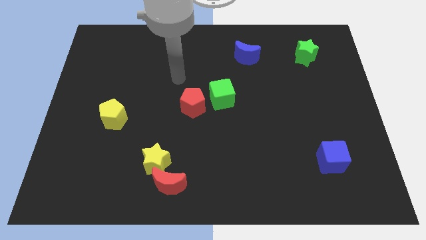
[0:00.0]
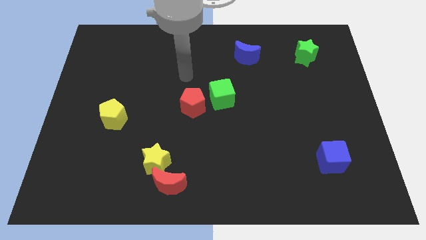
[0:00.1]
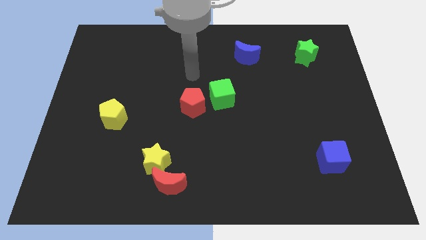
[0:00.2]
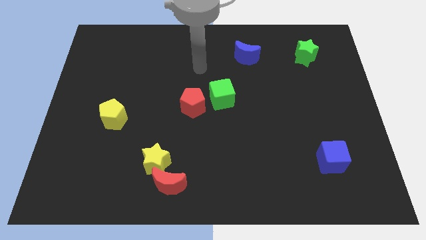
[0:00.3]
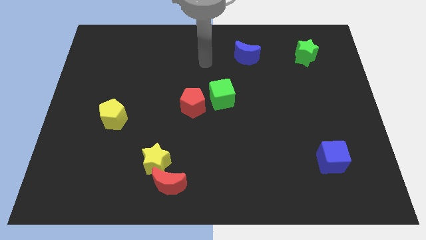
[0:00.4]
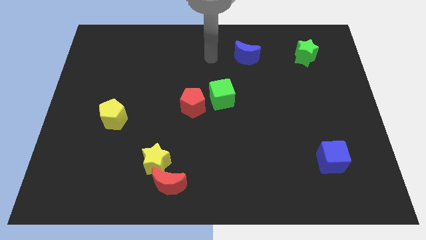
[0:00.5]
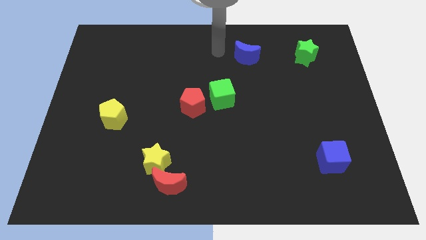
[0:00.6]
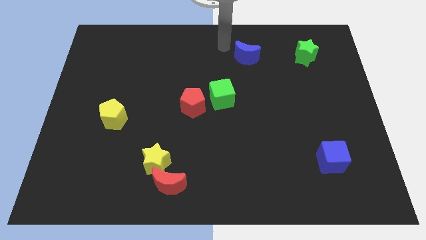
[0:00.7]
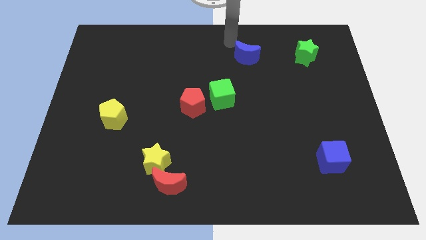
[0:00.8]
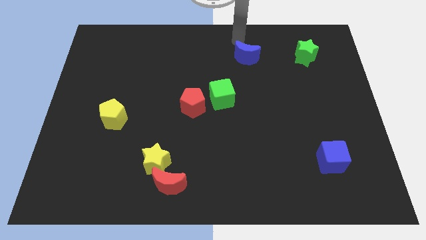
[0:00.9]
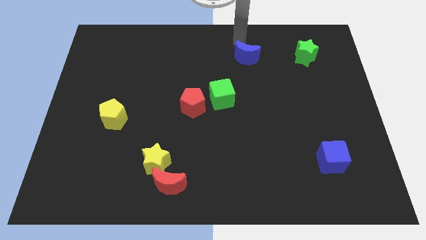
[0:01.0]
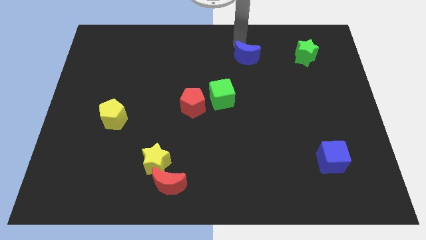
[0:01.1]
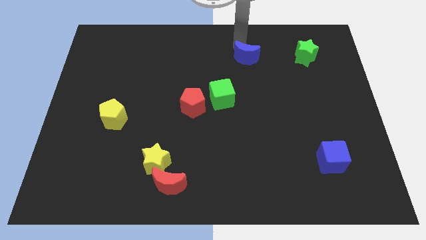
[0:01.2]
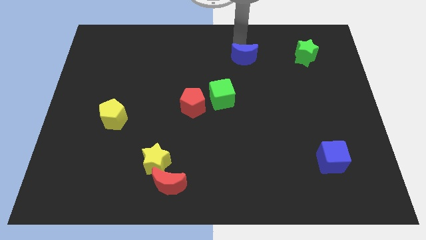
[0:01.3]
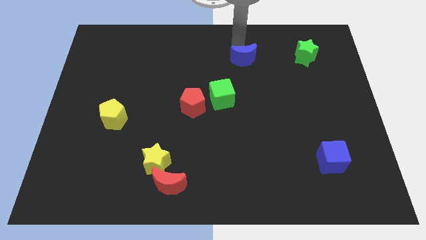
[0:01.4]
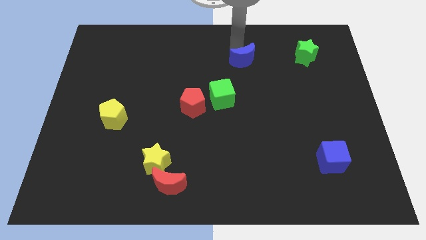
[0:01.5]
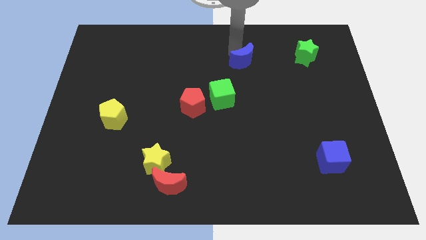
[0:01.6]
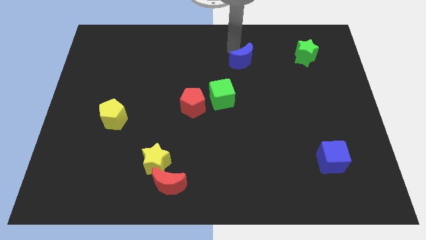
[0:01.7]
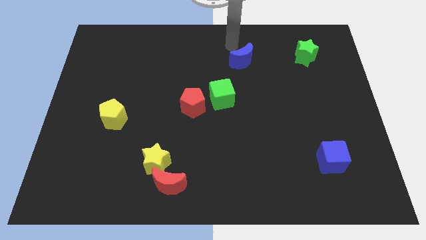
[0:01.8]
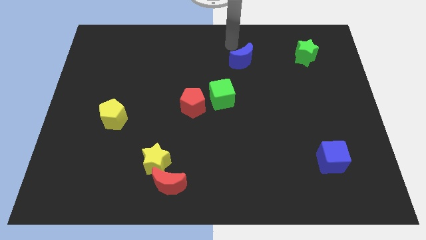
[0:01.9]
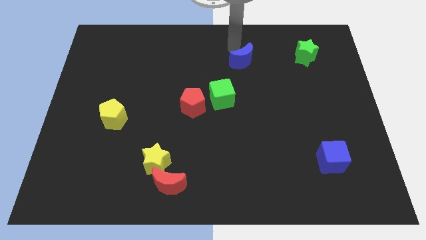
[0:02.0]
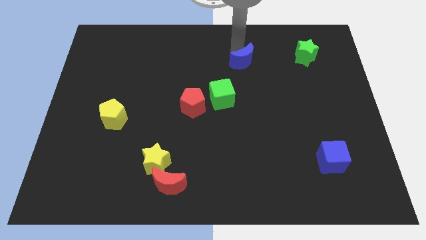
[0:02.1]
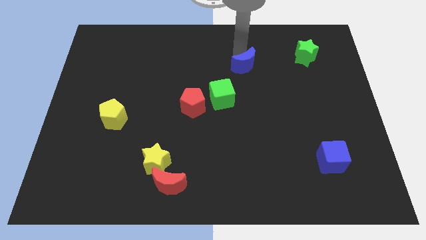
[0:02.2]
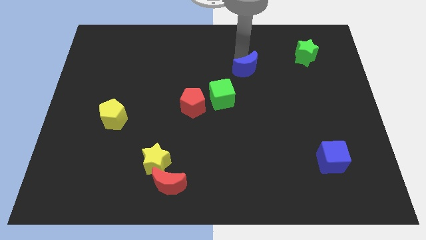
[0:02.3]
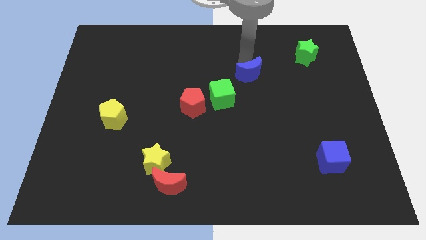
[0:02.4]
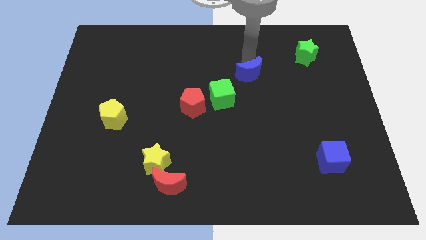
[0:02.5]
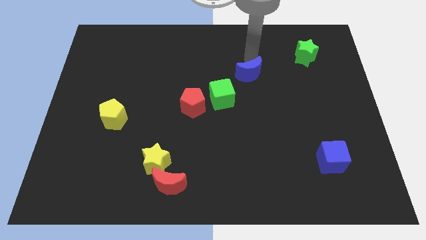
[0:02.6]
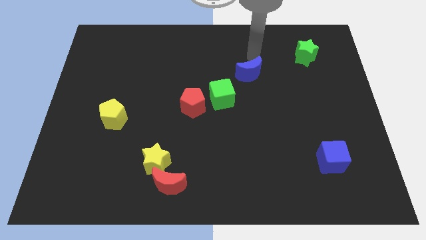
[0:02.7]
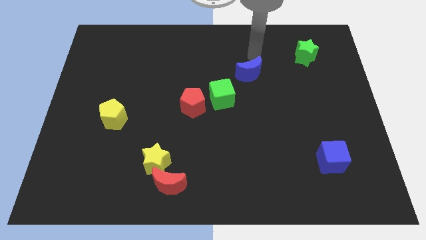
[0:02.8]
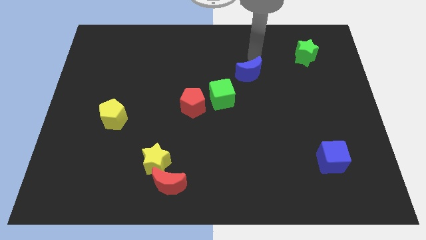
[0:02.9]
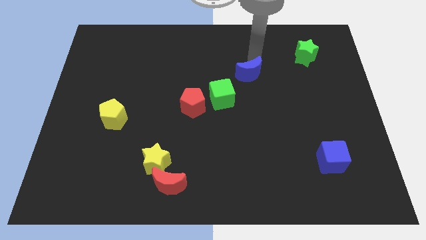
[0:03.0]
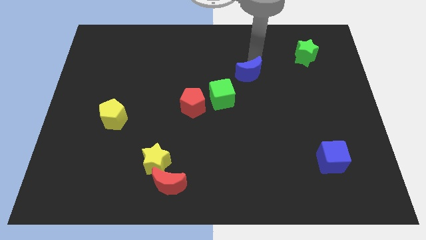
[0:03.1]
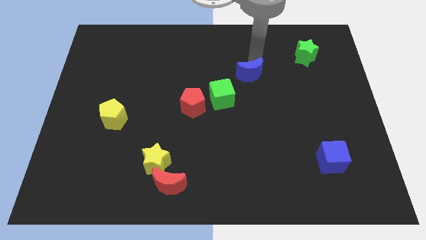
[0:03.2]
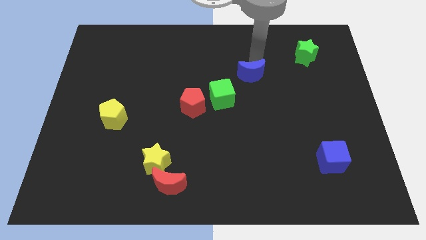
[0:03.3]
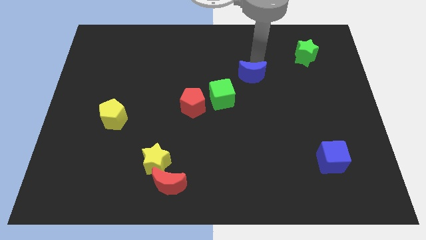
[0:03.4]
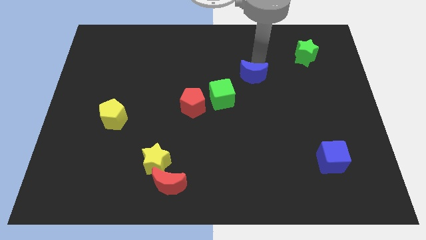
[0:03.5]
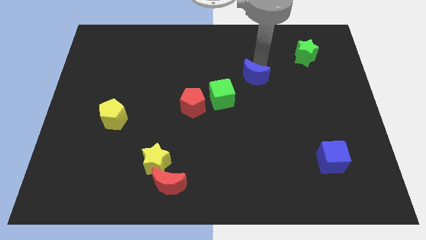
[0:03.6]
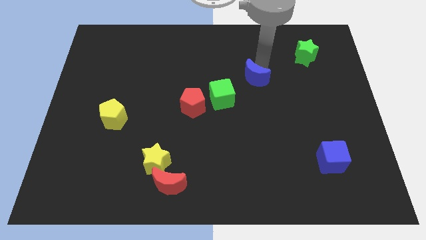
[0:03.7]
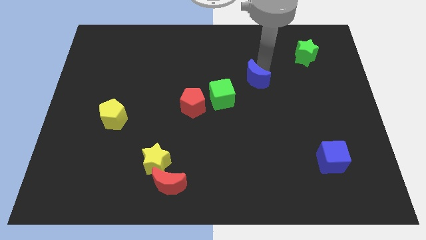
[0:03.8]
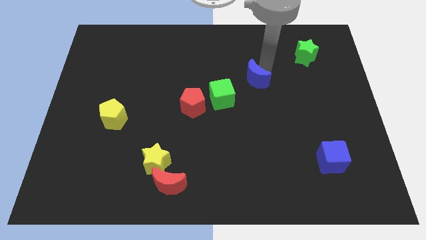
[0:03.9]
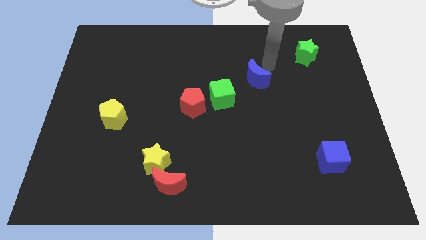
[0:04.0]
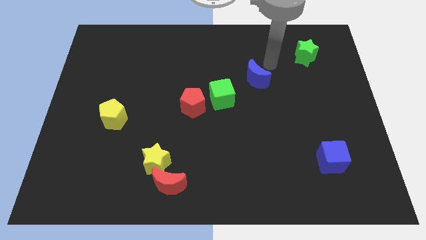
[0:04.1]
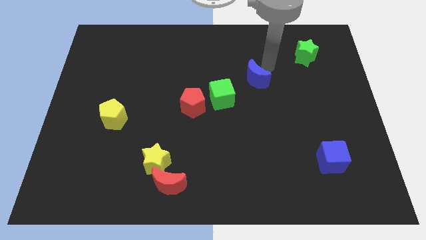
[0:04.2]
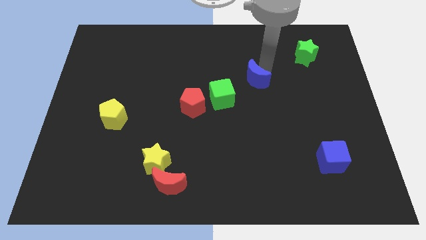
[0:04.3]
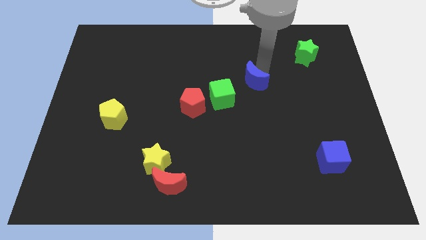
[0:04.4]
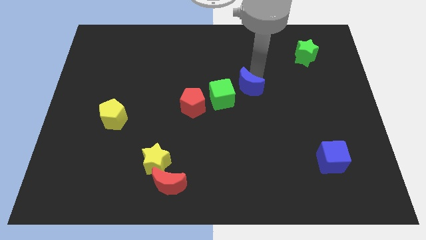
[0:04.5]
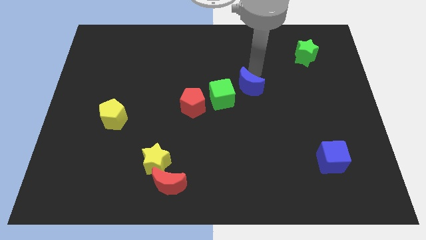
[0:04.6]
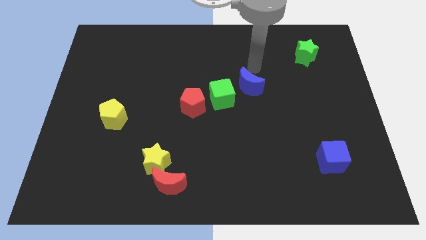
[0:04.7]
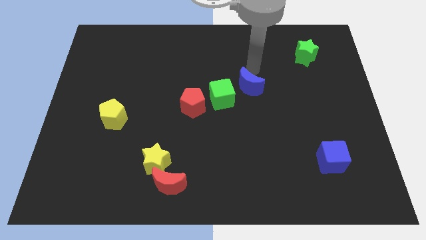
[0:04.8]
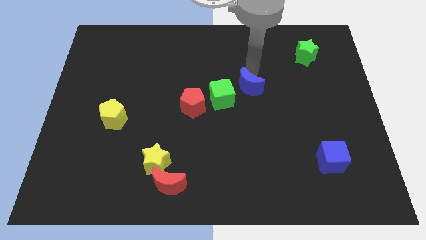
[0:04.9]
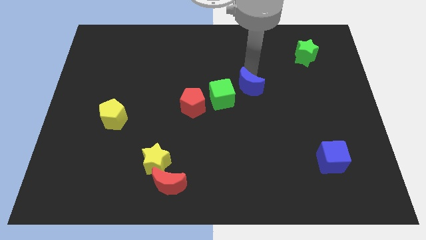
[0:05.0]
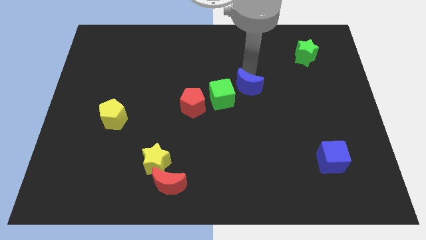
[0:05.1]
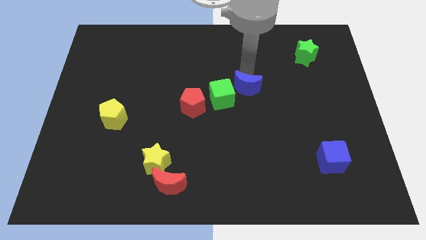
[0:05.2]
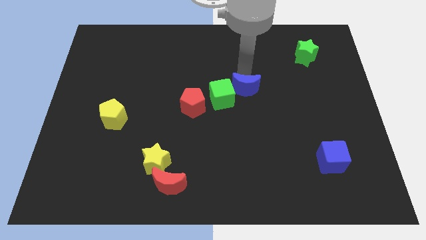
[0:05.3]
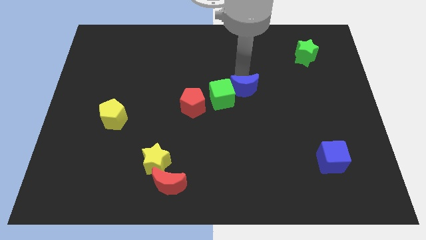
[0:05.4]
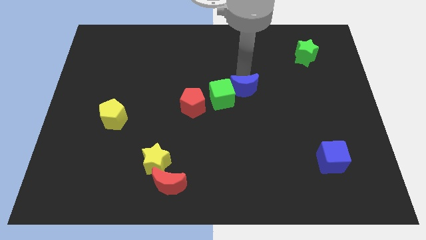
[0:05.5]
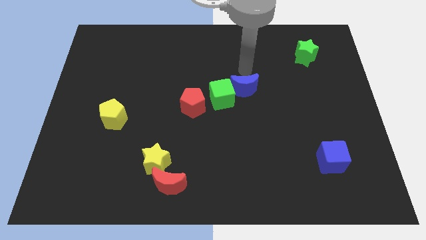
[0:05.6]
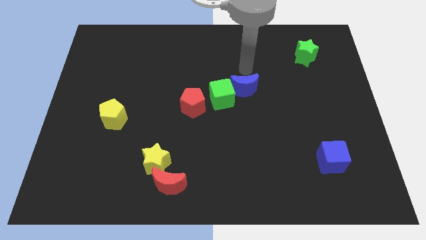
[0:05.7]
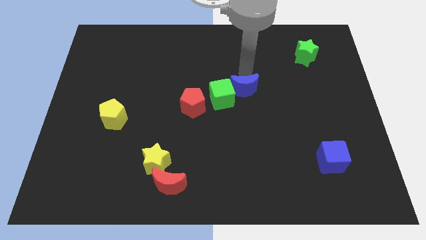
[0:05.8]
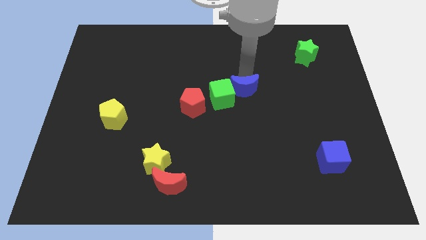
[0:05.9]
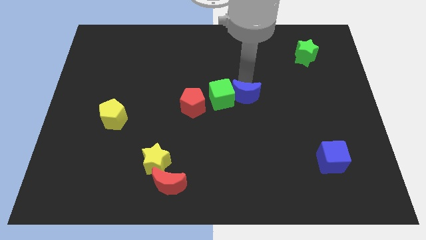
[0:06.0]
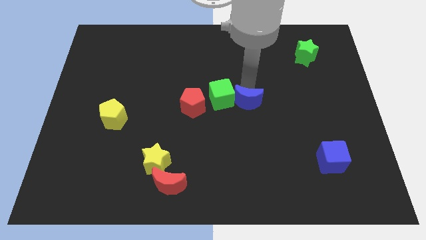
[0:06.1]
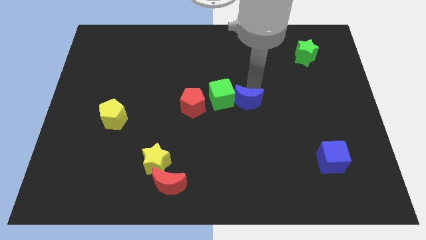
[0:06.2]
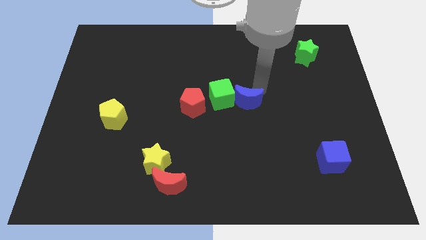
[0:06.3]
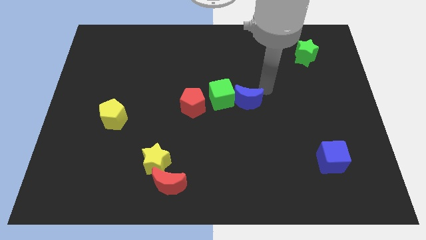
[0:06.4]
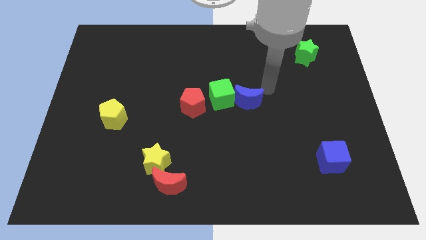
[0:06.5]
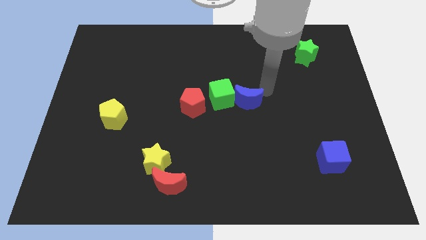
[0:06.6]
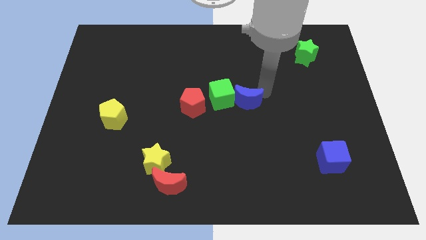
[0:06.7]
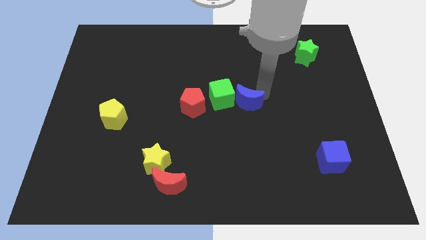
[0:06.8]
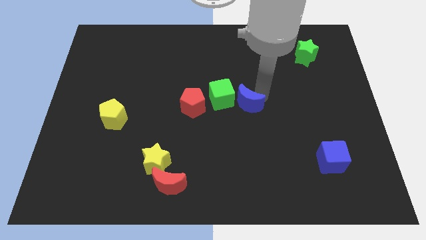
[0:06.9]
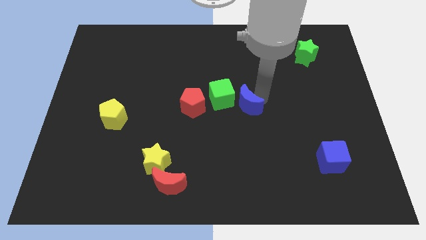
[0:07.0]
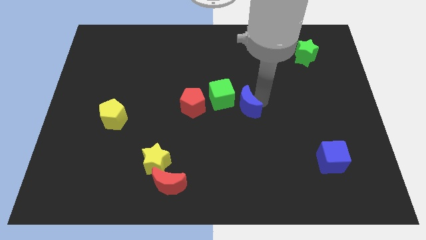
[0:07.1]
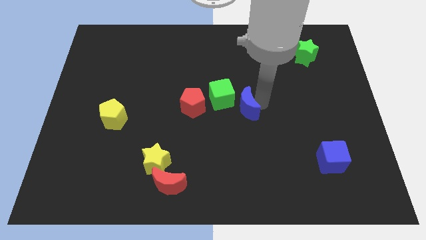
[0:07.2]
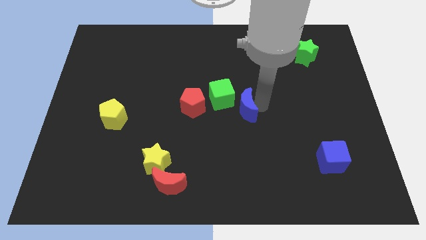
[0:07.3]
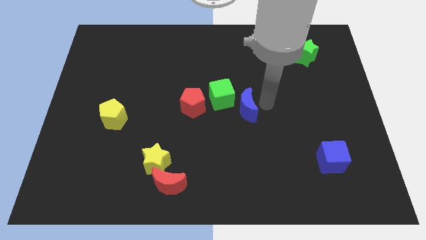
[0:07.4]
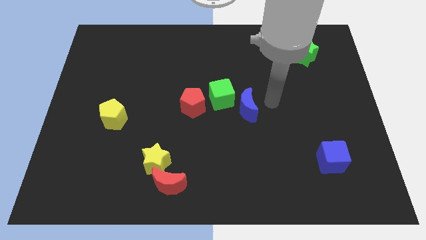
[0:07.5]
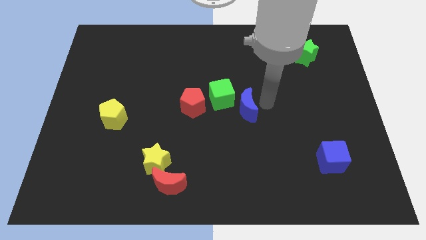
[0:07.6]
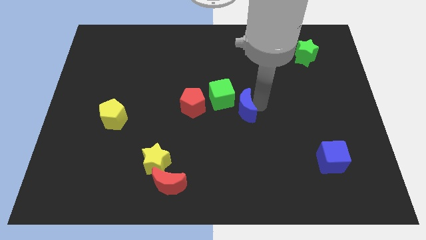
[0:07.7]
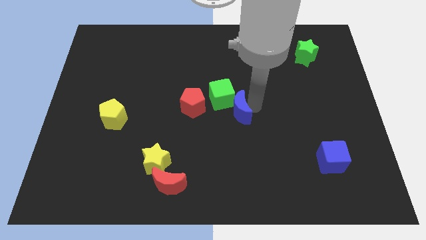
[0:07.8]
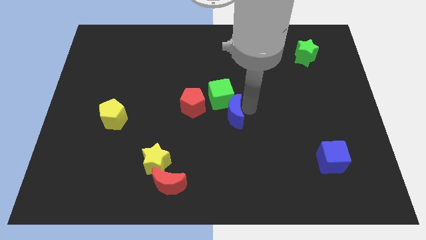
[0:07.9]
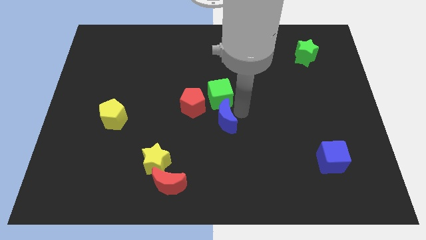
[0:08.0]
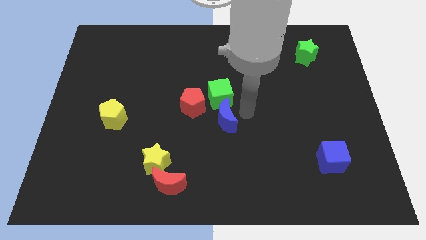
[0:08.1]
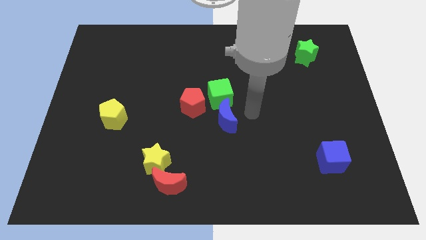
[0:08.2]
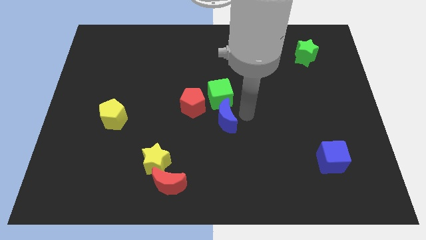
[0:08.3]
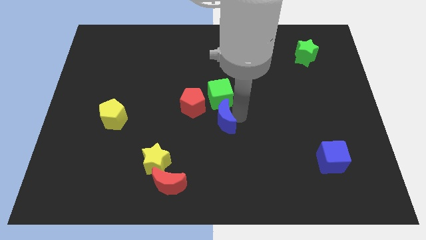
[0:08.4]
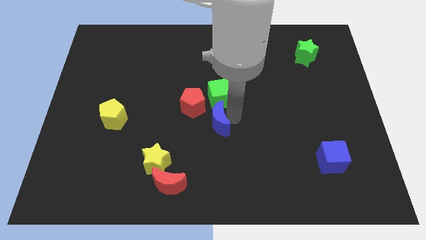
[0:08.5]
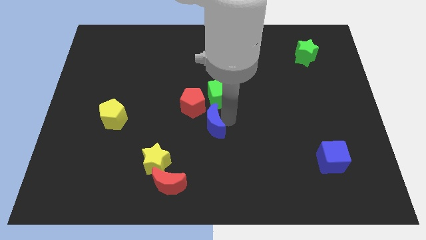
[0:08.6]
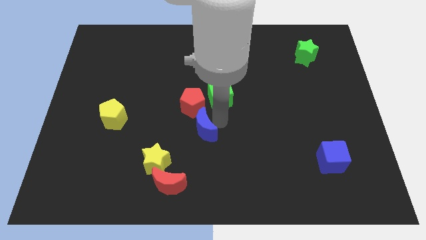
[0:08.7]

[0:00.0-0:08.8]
put the blue moon diagonally up and to the right of the yellow star
